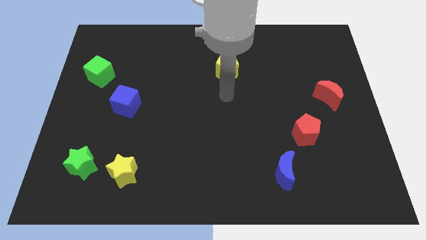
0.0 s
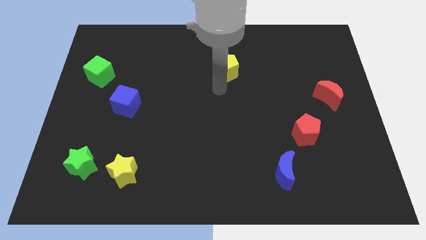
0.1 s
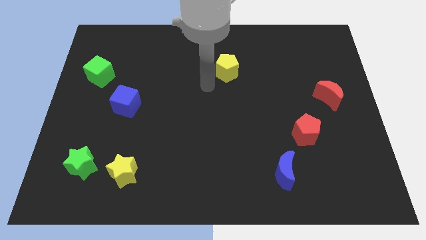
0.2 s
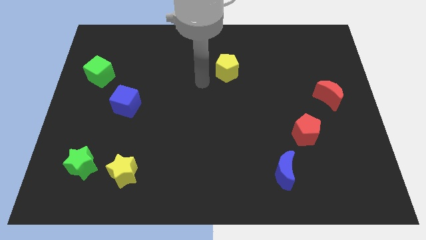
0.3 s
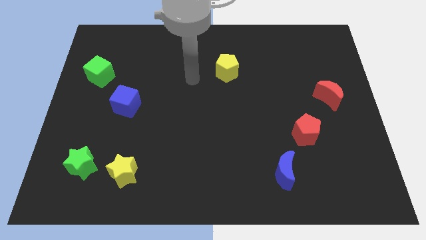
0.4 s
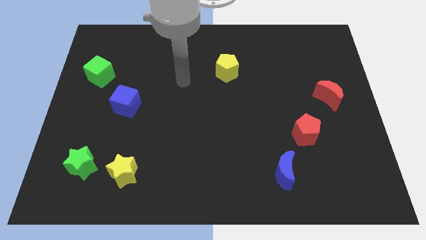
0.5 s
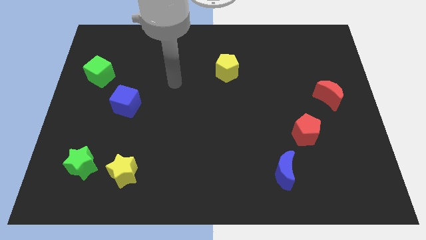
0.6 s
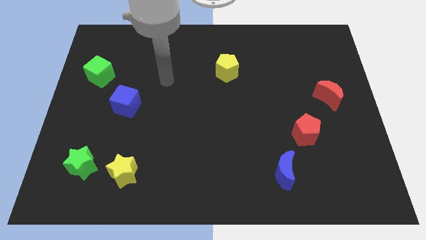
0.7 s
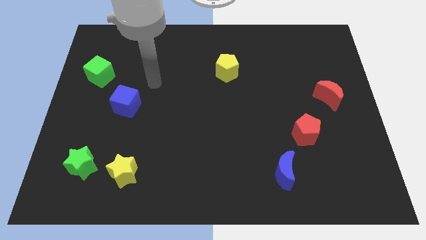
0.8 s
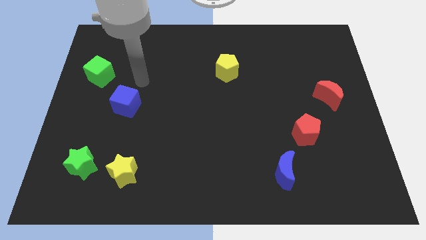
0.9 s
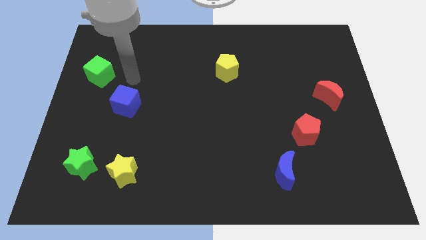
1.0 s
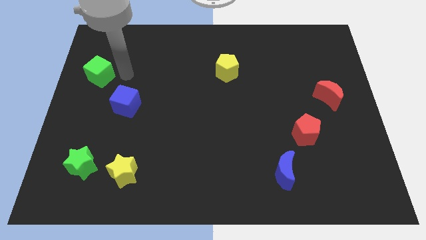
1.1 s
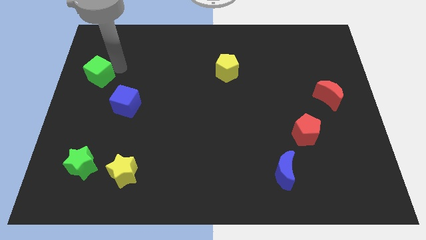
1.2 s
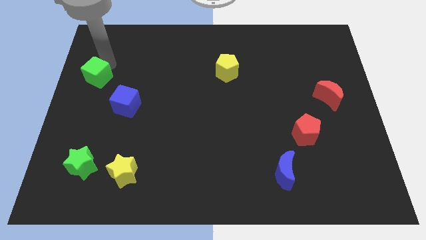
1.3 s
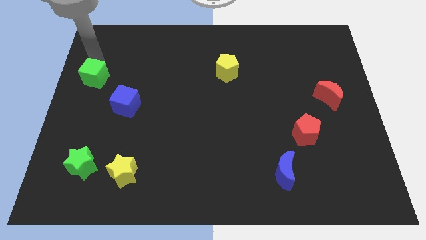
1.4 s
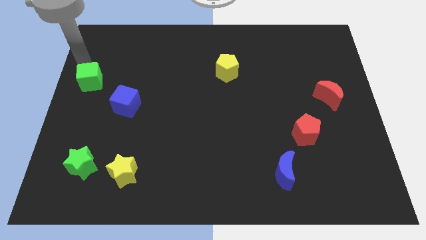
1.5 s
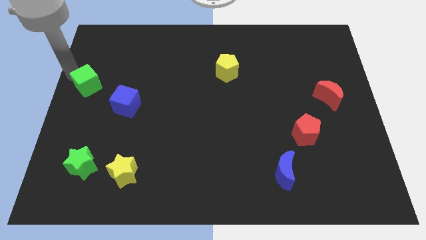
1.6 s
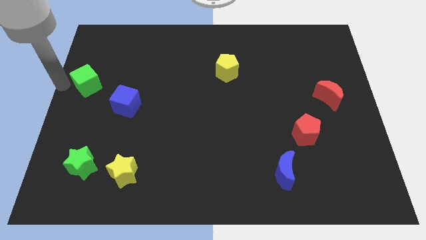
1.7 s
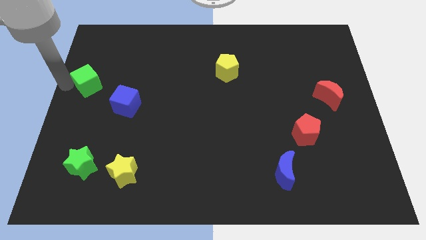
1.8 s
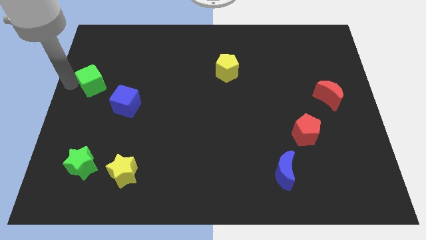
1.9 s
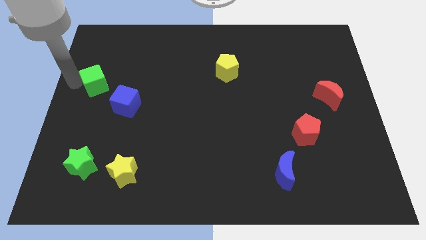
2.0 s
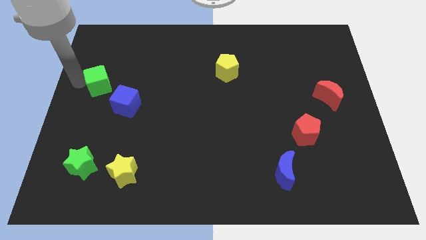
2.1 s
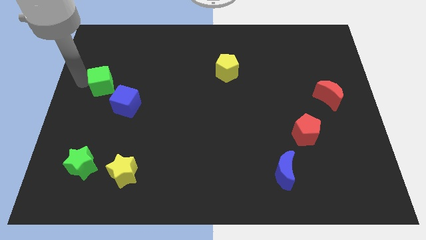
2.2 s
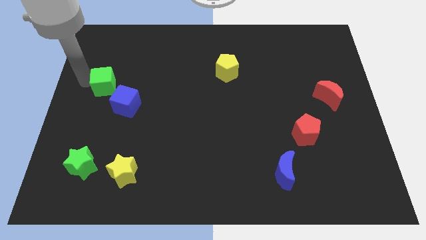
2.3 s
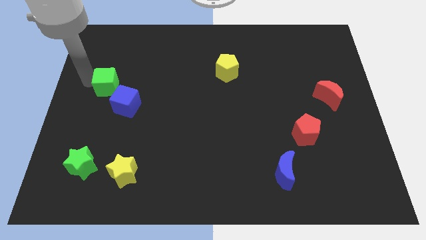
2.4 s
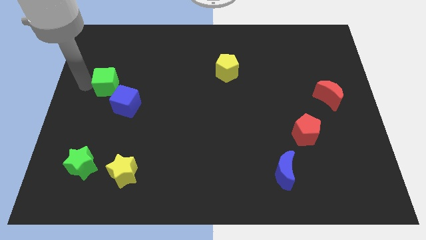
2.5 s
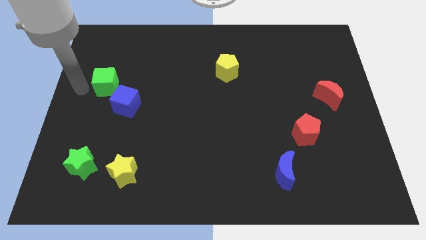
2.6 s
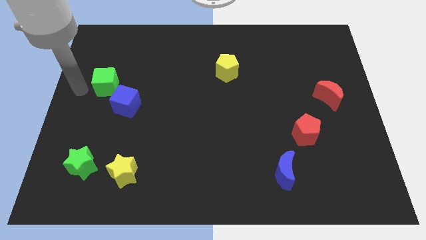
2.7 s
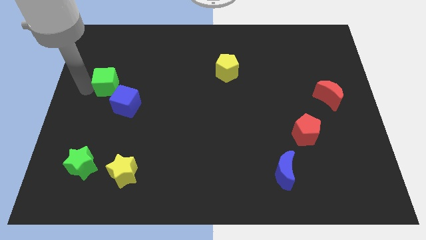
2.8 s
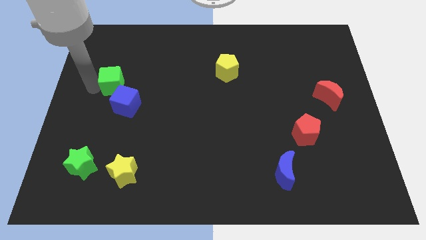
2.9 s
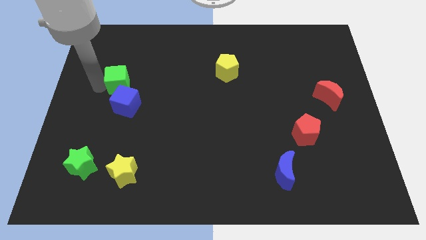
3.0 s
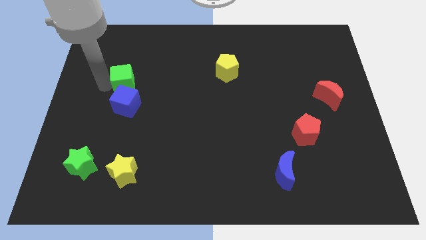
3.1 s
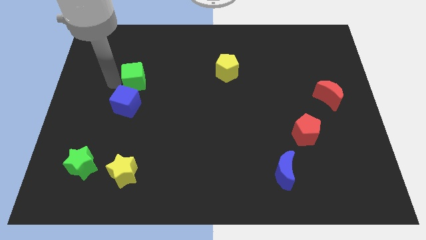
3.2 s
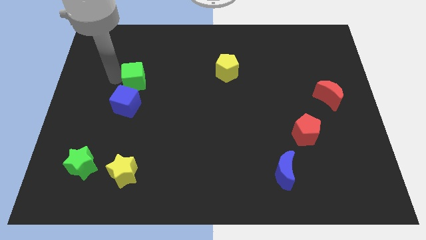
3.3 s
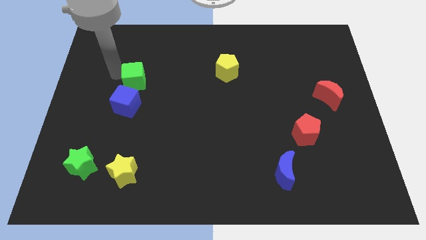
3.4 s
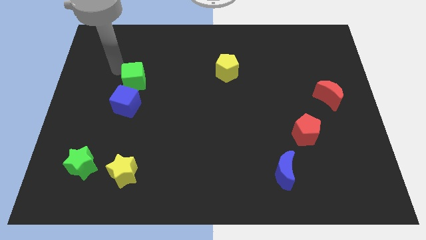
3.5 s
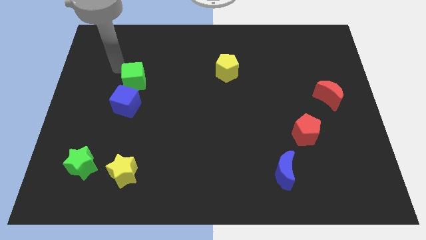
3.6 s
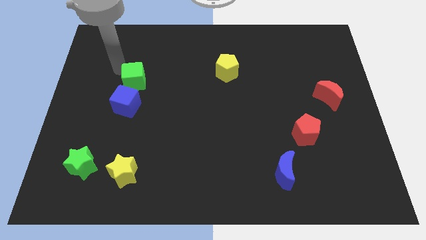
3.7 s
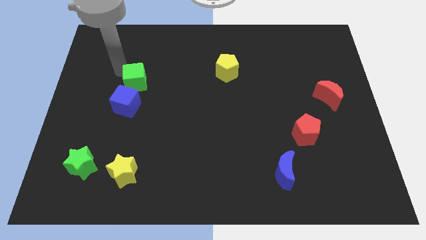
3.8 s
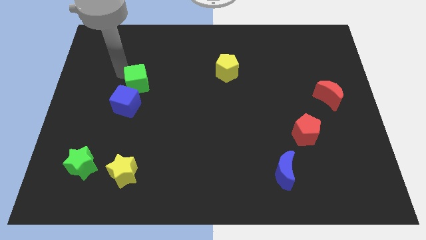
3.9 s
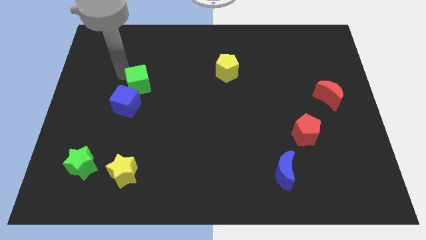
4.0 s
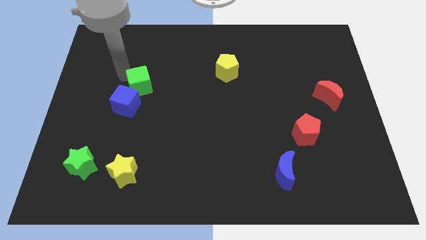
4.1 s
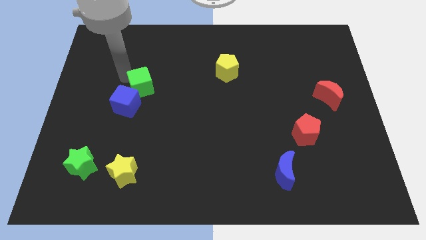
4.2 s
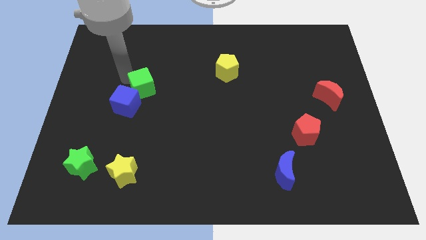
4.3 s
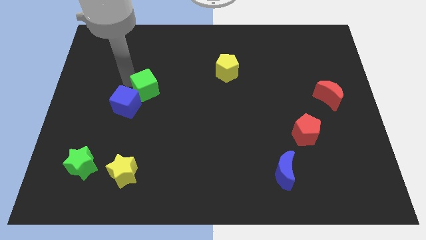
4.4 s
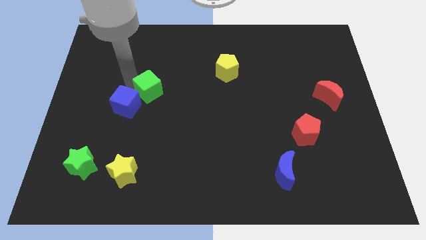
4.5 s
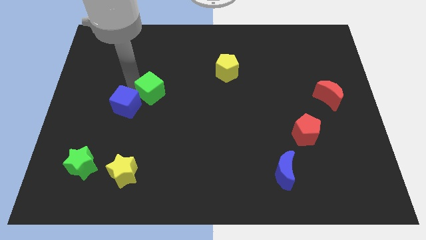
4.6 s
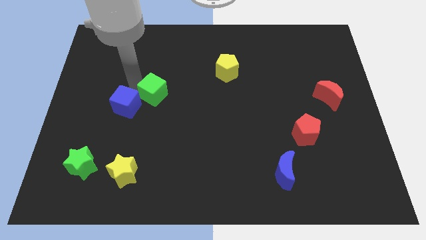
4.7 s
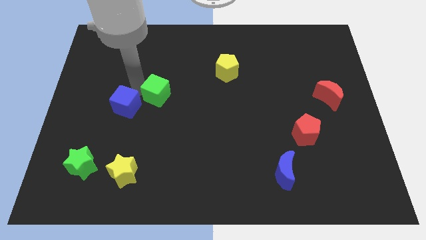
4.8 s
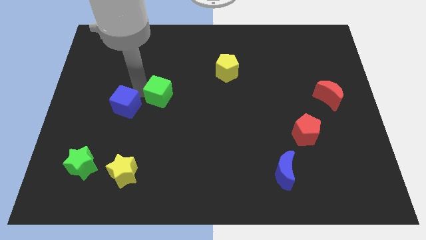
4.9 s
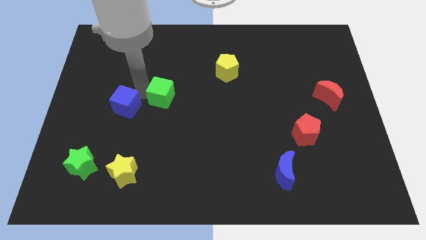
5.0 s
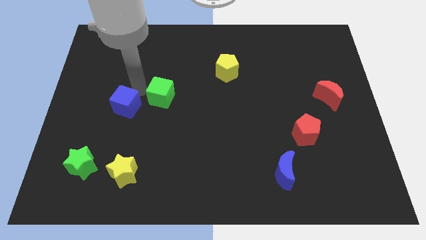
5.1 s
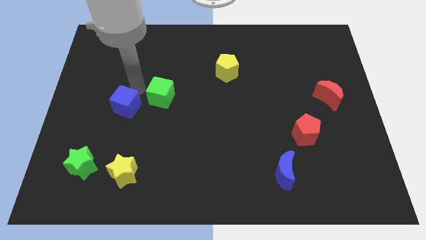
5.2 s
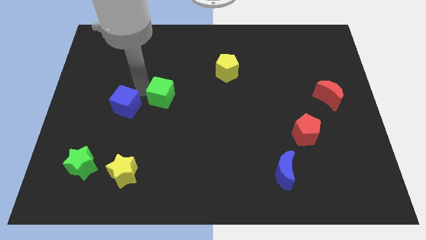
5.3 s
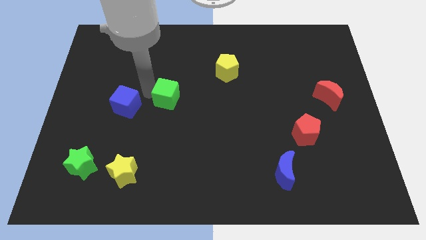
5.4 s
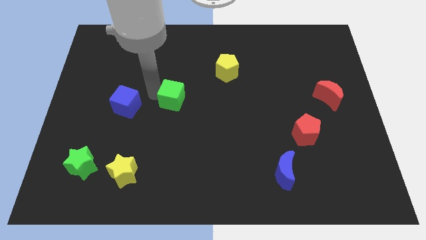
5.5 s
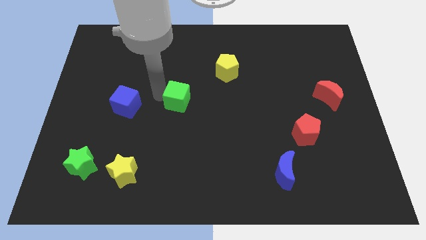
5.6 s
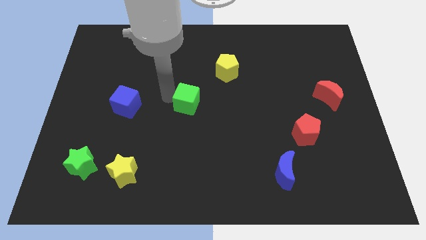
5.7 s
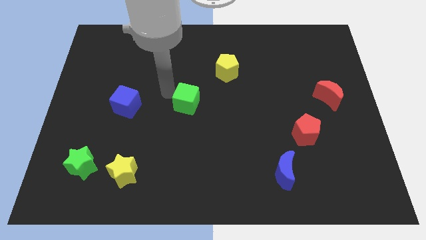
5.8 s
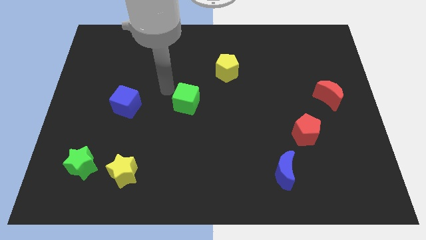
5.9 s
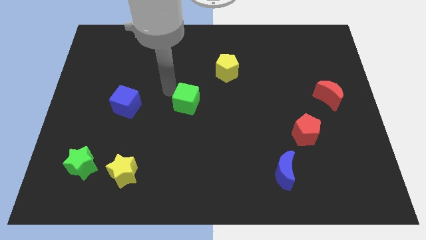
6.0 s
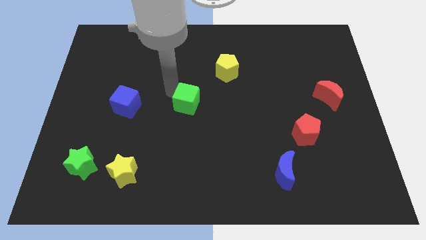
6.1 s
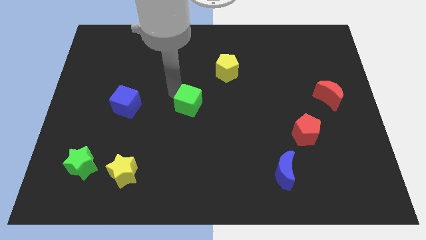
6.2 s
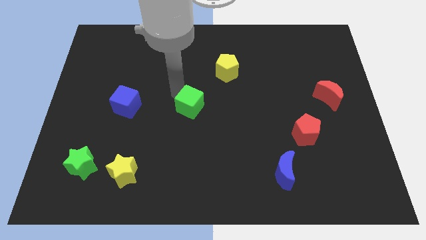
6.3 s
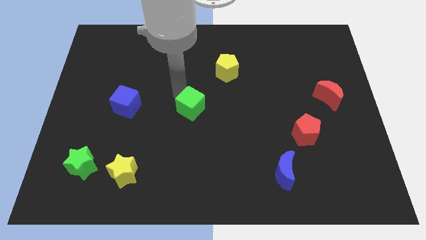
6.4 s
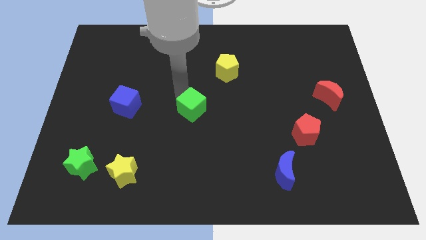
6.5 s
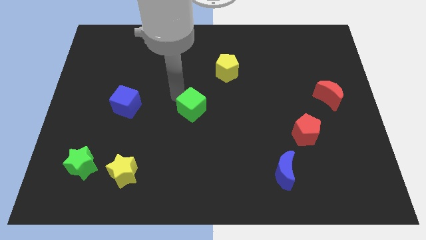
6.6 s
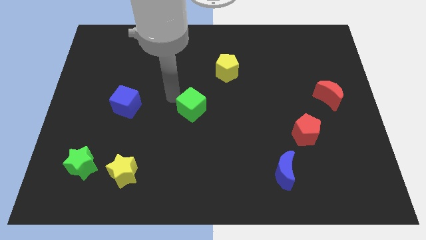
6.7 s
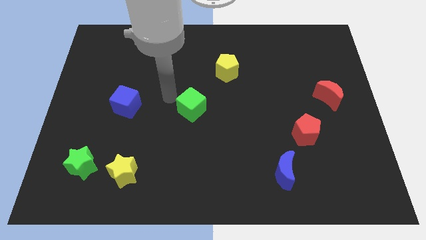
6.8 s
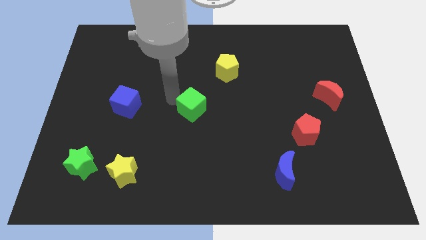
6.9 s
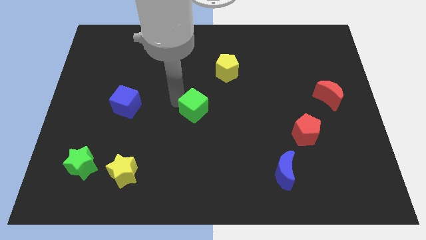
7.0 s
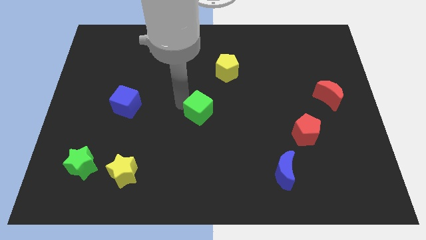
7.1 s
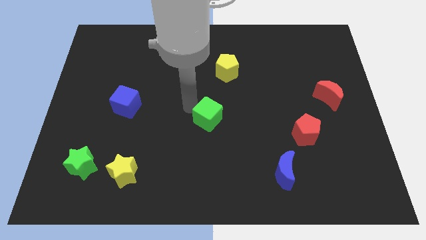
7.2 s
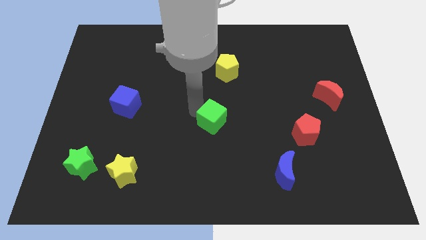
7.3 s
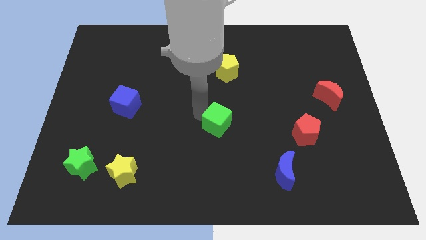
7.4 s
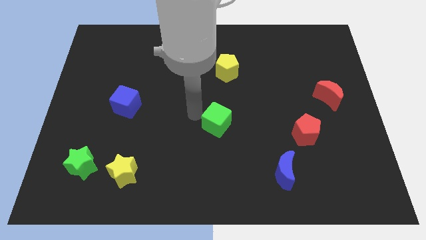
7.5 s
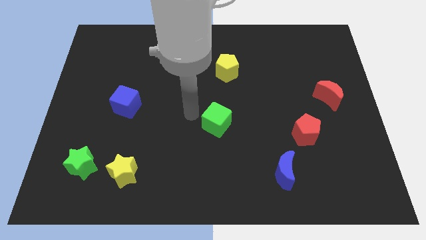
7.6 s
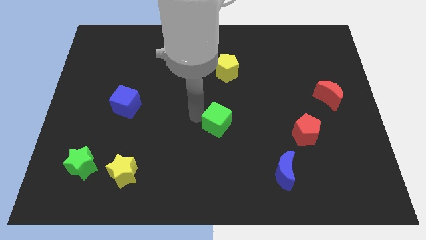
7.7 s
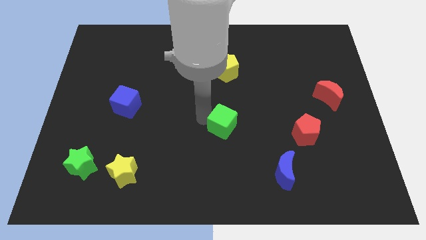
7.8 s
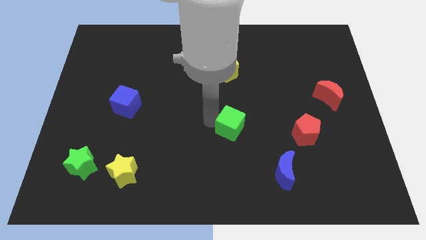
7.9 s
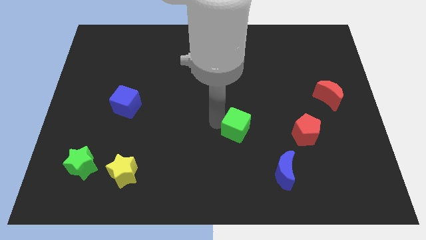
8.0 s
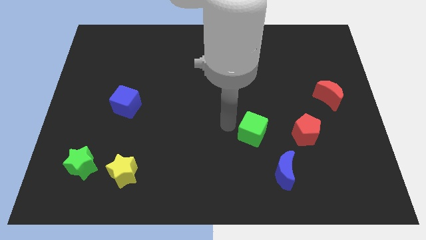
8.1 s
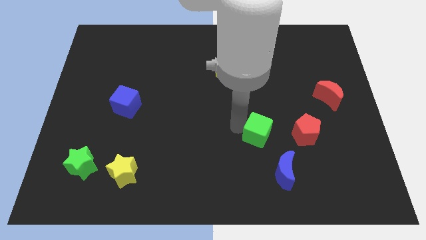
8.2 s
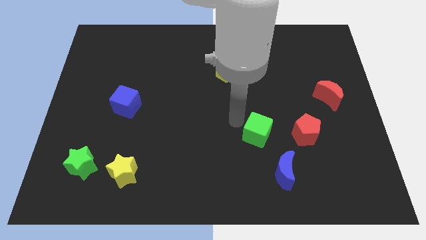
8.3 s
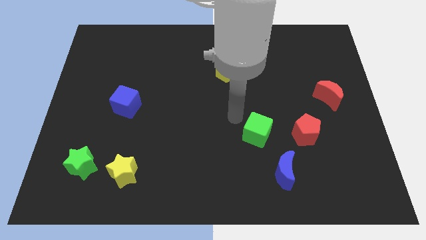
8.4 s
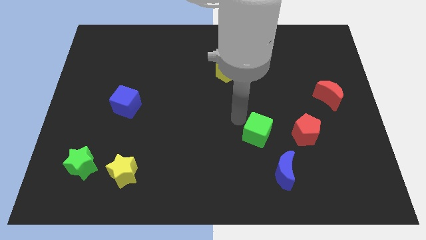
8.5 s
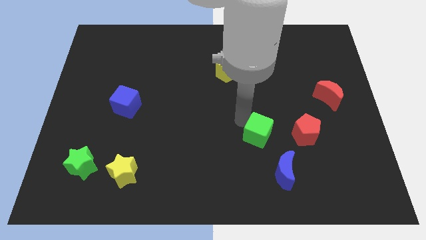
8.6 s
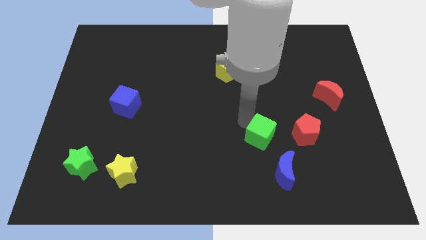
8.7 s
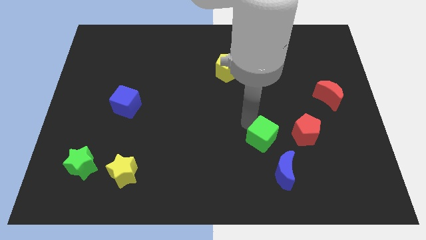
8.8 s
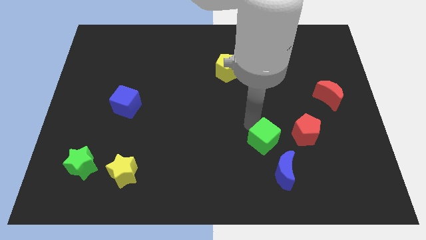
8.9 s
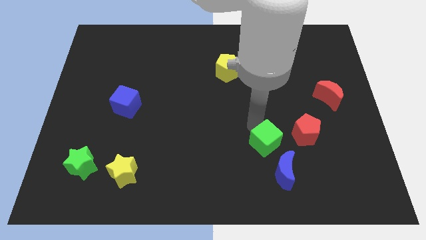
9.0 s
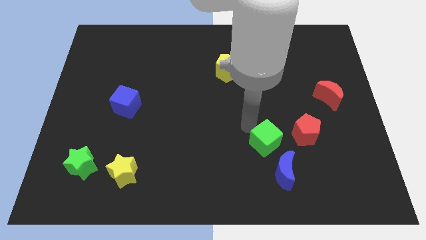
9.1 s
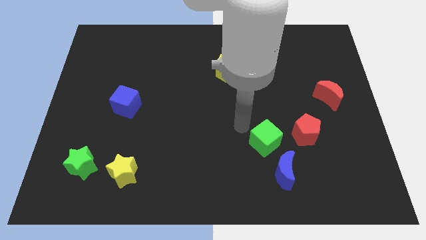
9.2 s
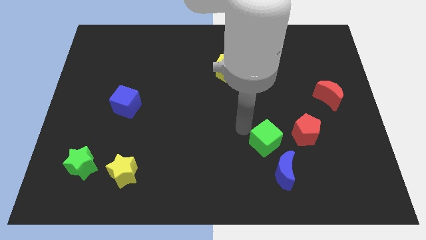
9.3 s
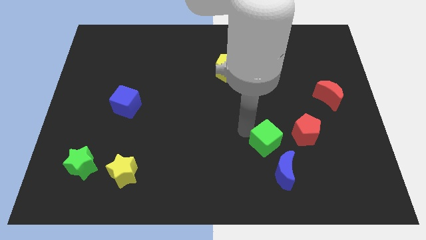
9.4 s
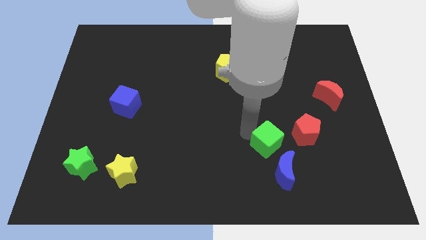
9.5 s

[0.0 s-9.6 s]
move the green cube to the bottom left of the red pentagon
